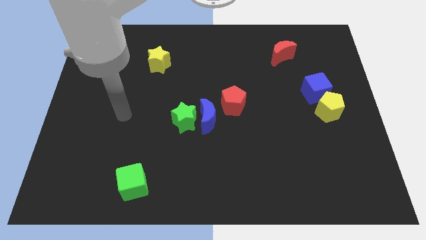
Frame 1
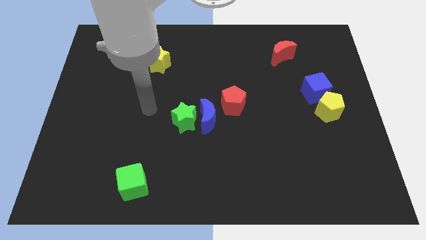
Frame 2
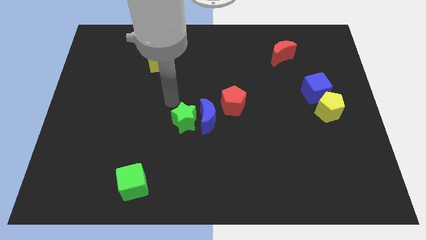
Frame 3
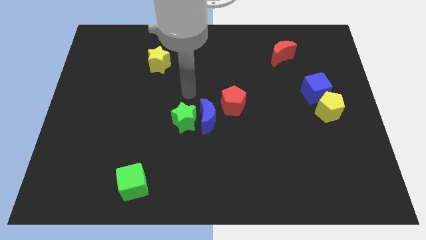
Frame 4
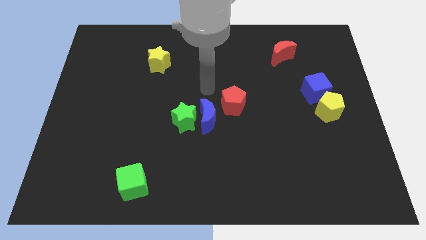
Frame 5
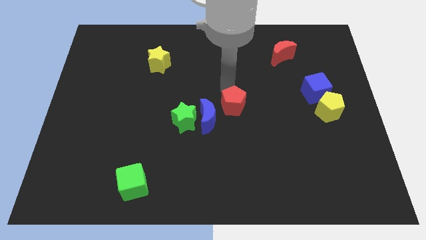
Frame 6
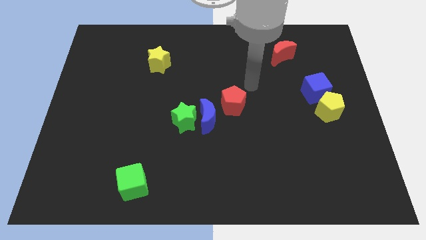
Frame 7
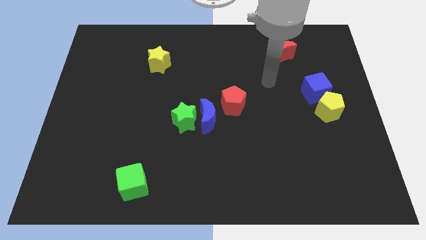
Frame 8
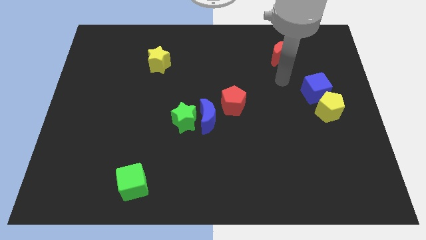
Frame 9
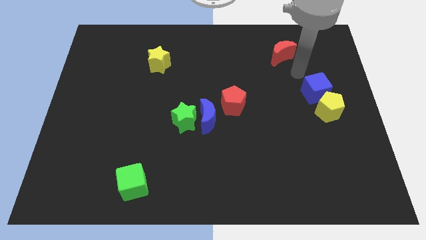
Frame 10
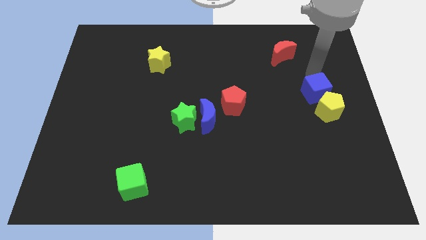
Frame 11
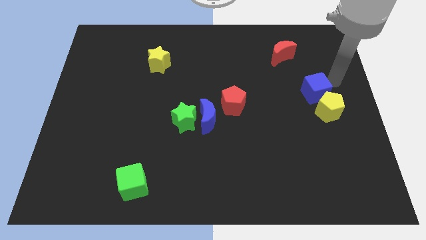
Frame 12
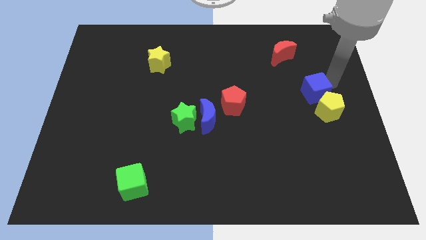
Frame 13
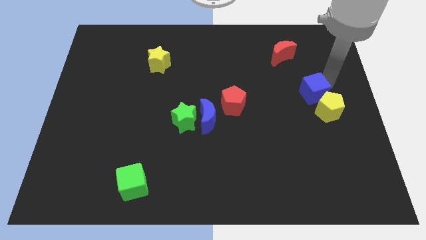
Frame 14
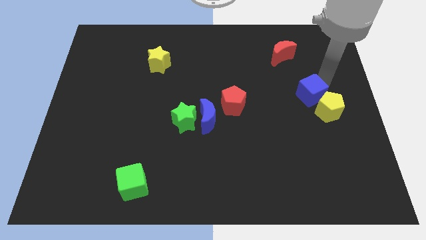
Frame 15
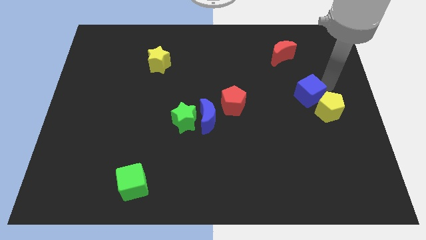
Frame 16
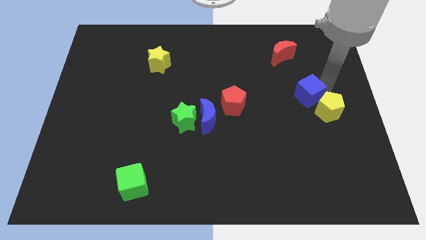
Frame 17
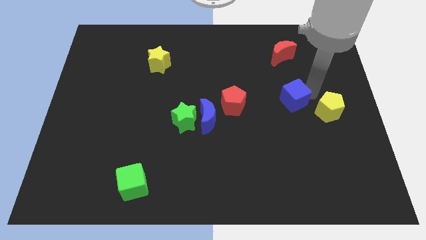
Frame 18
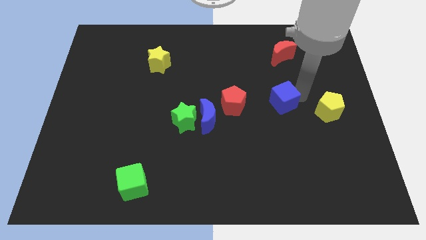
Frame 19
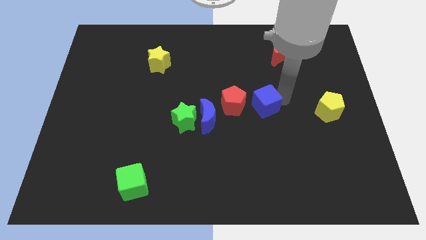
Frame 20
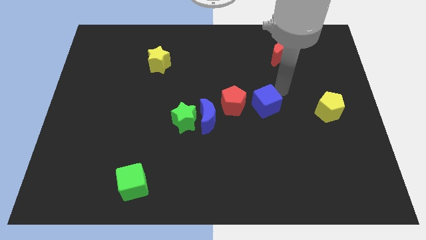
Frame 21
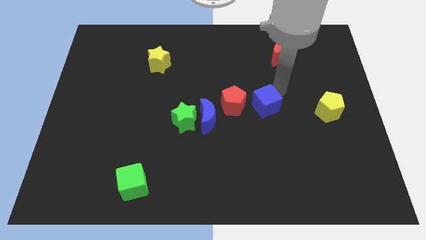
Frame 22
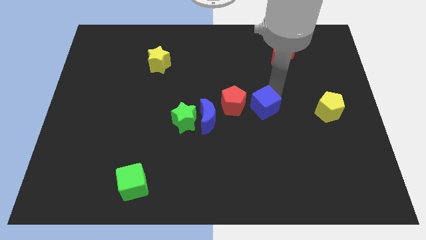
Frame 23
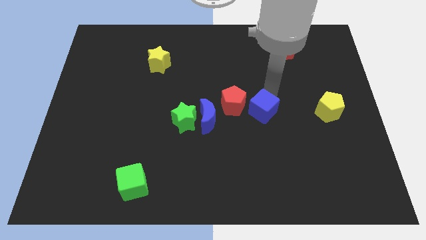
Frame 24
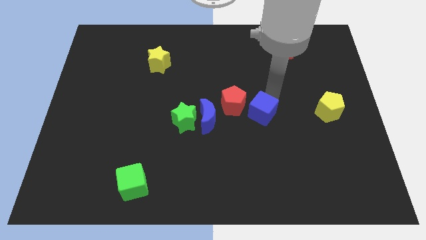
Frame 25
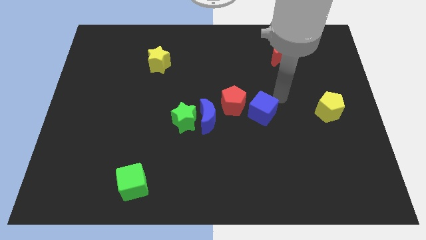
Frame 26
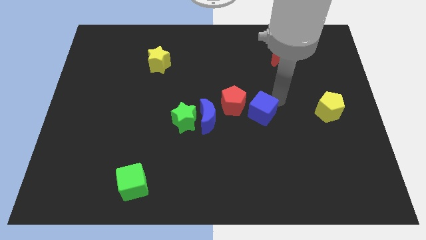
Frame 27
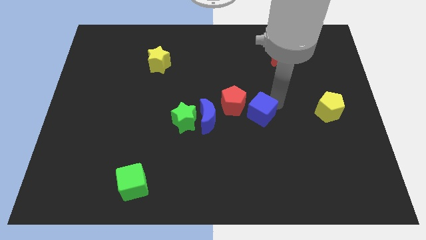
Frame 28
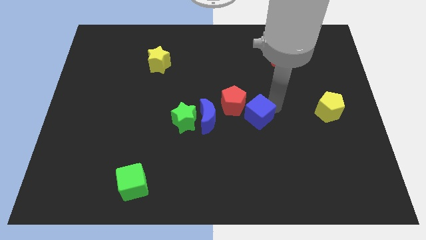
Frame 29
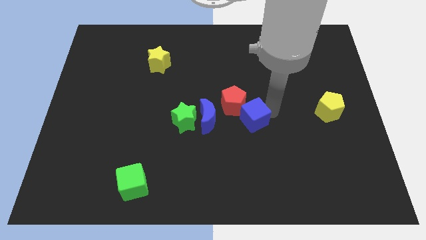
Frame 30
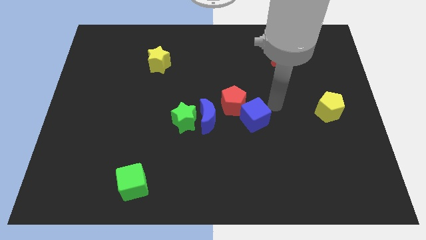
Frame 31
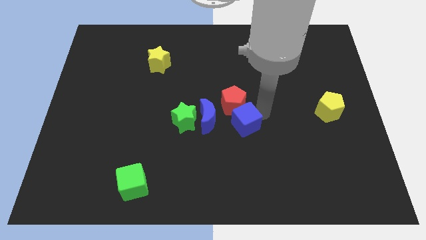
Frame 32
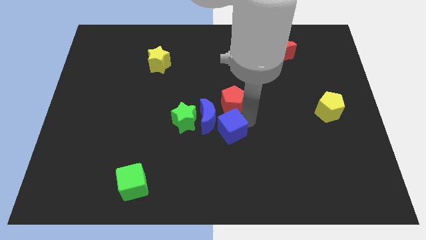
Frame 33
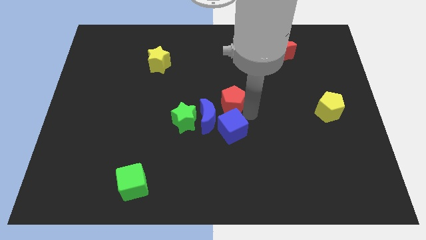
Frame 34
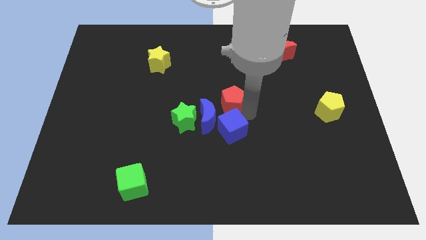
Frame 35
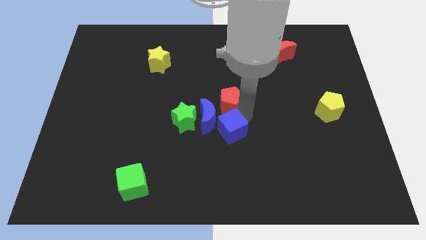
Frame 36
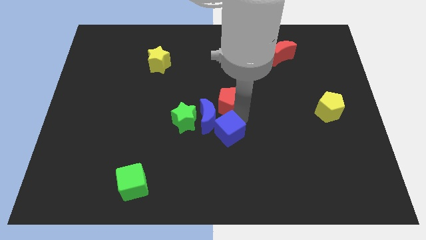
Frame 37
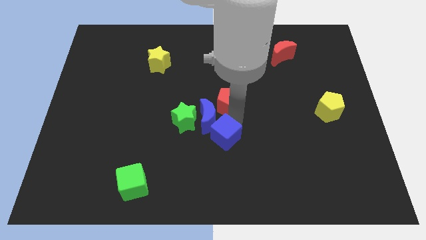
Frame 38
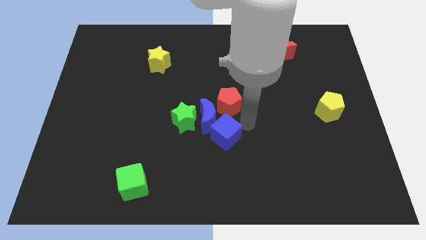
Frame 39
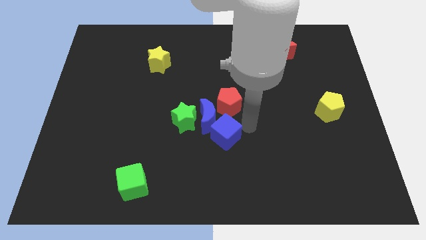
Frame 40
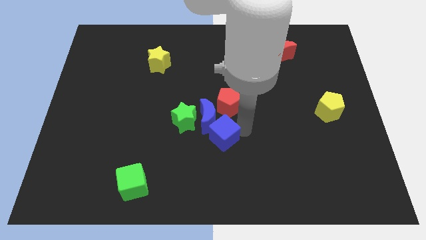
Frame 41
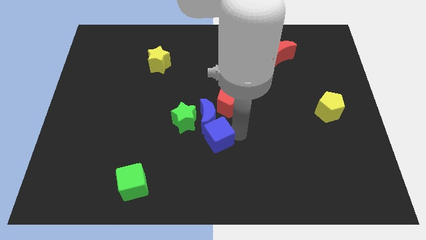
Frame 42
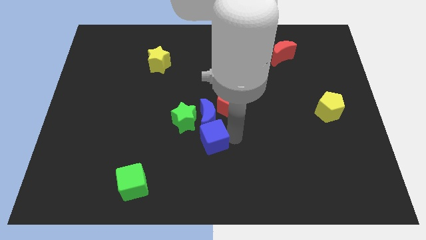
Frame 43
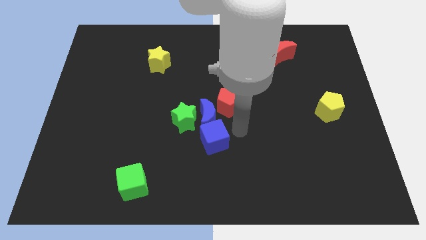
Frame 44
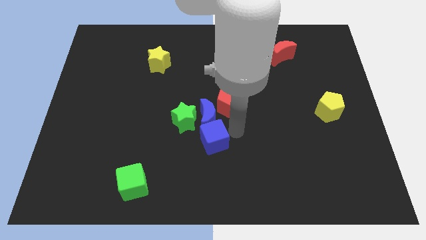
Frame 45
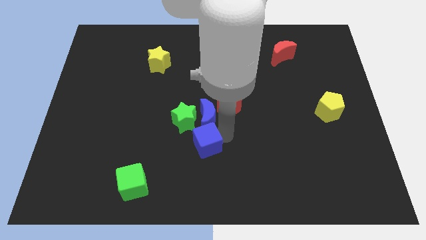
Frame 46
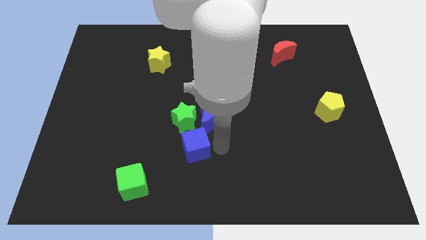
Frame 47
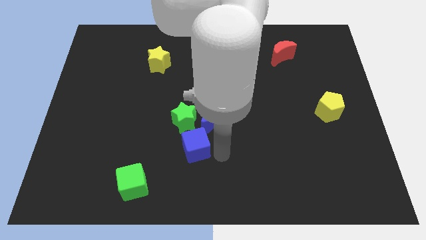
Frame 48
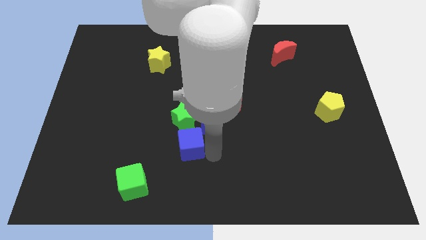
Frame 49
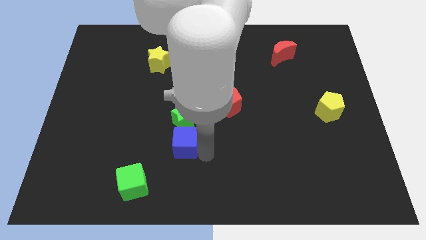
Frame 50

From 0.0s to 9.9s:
put the blue cube diagonally down and to the left of the green star

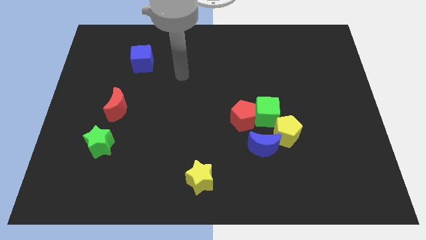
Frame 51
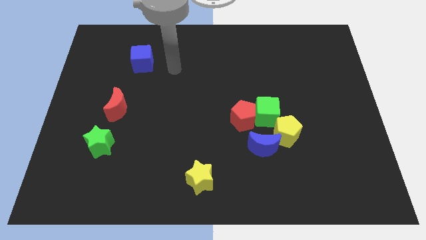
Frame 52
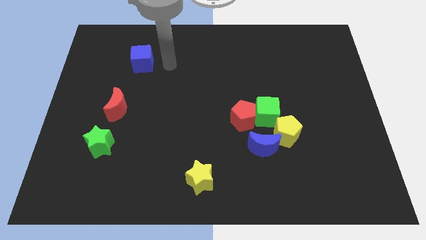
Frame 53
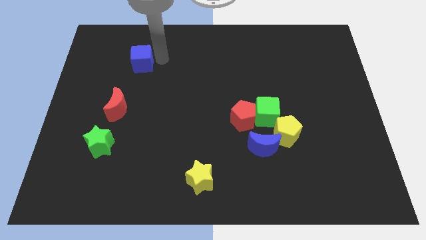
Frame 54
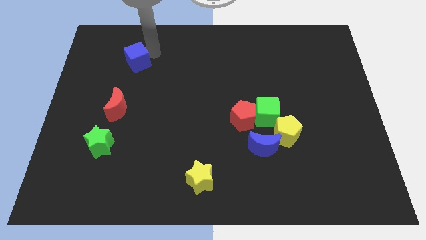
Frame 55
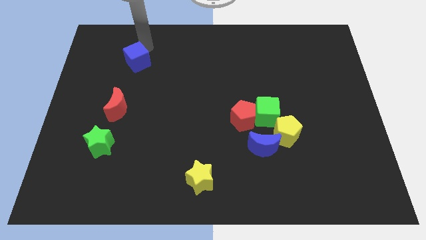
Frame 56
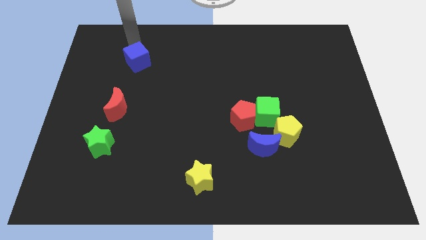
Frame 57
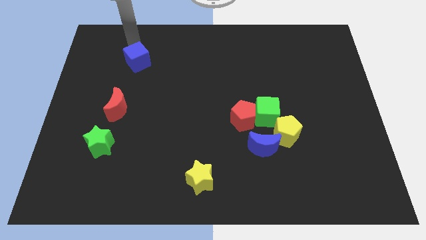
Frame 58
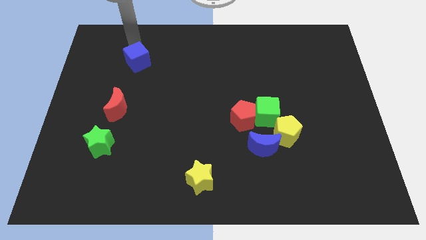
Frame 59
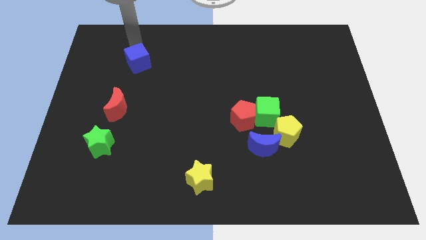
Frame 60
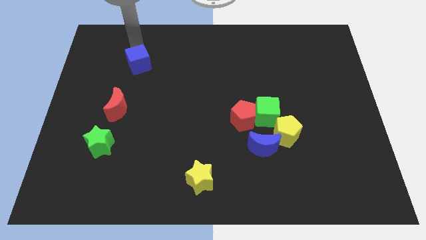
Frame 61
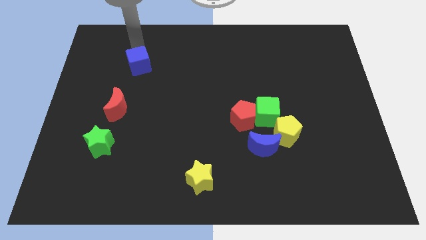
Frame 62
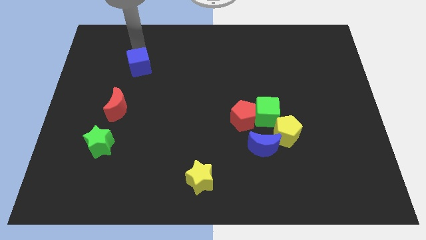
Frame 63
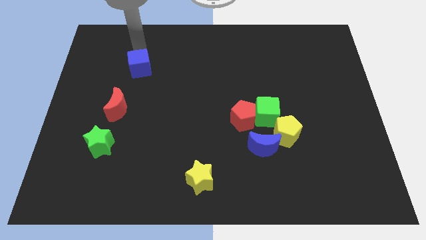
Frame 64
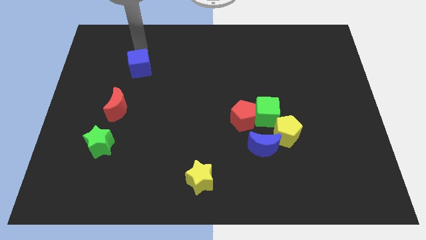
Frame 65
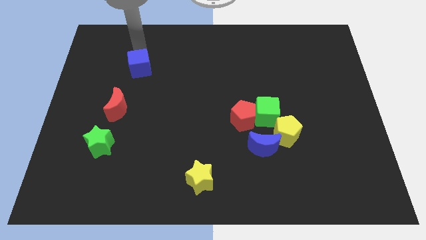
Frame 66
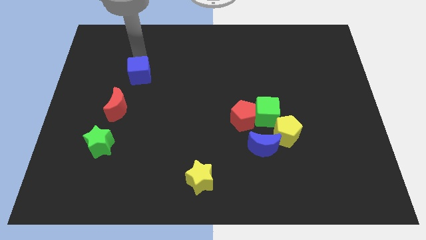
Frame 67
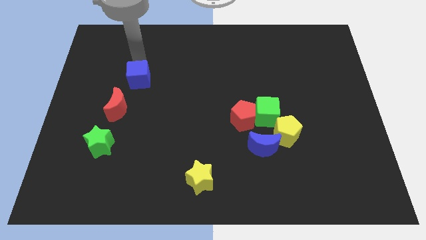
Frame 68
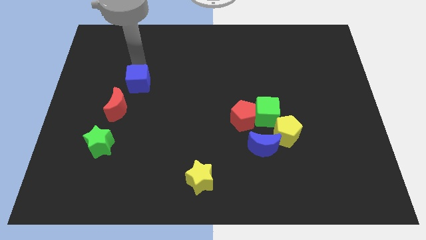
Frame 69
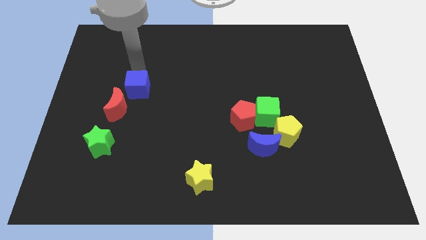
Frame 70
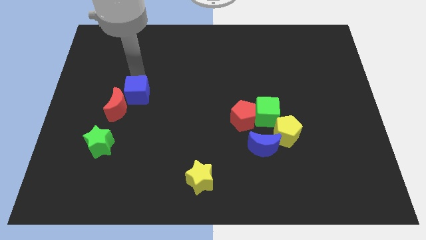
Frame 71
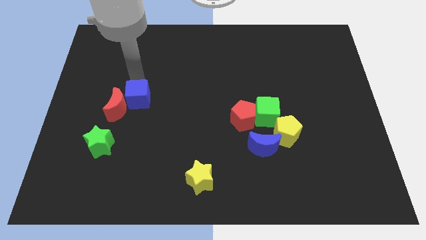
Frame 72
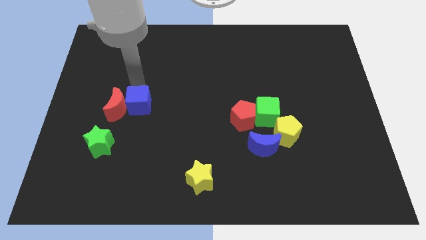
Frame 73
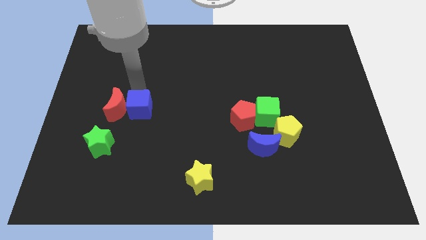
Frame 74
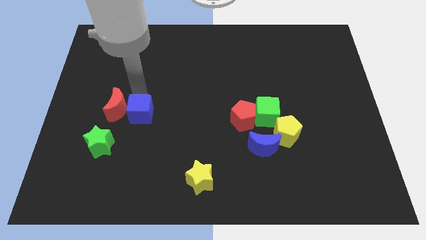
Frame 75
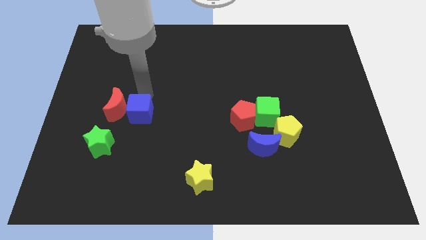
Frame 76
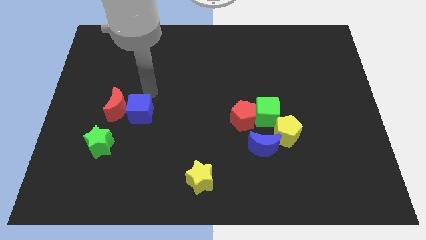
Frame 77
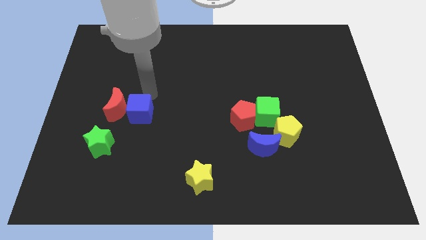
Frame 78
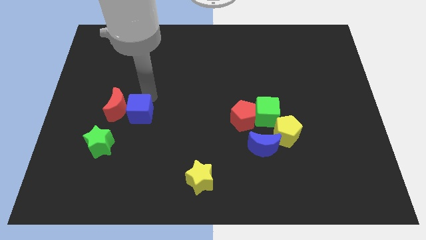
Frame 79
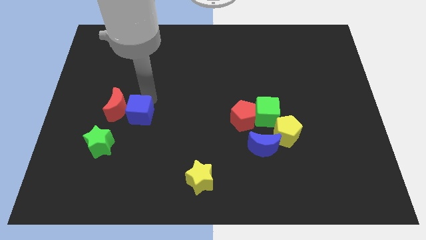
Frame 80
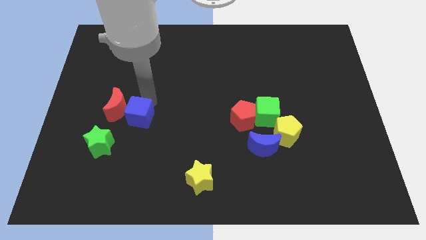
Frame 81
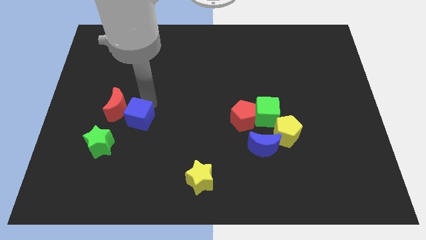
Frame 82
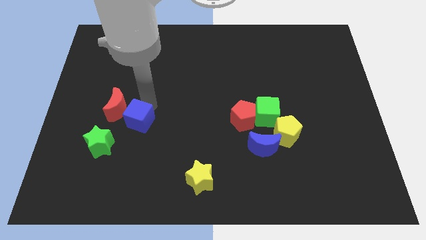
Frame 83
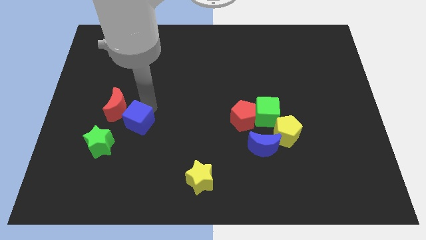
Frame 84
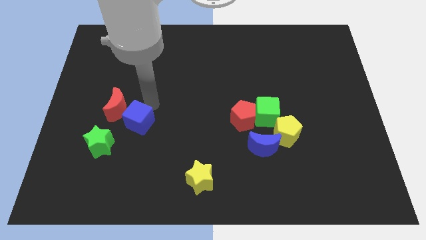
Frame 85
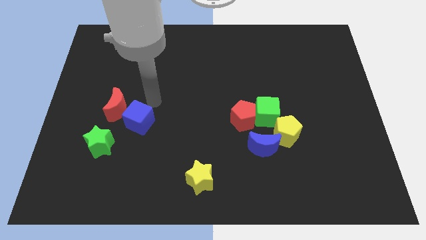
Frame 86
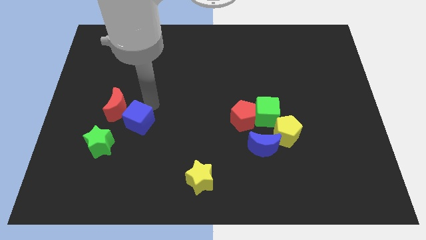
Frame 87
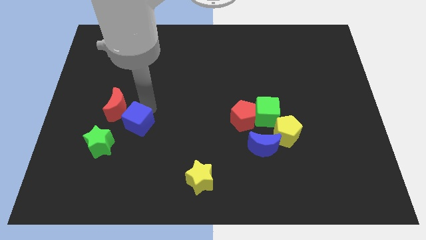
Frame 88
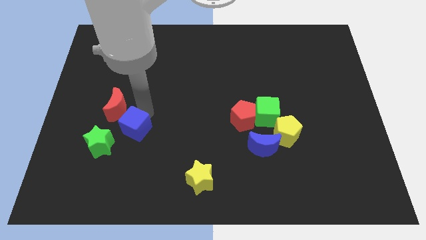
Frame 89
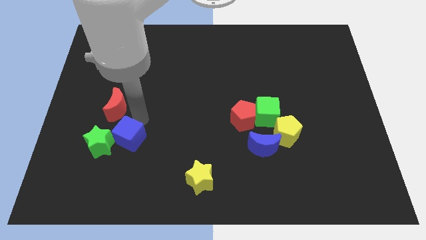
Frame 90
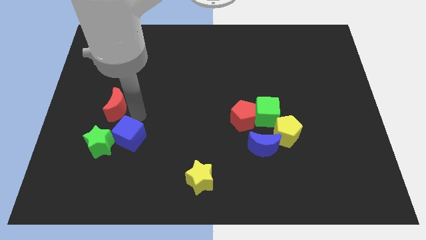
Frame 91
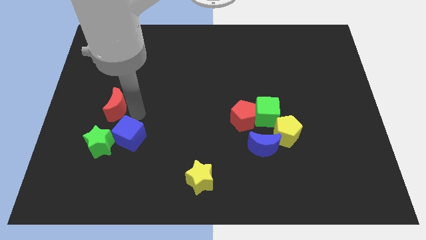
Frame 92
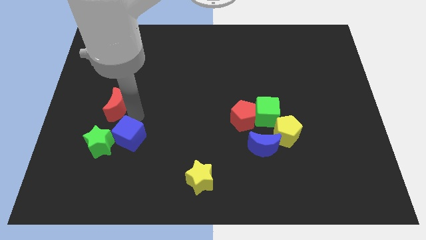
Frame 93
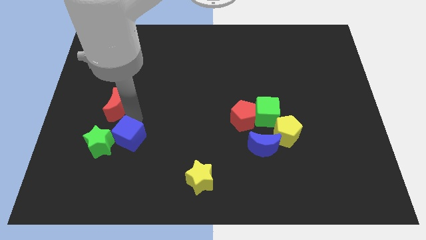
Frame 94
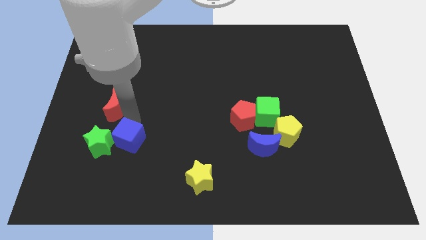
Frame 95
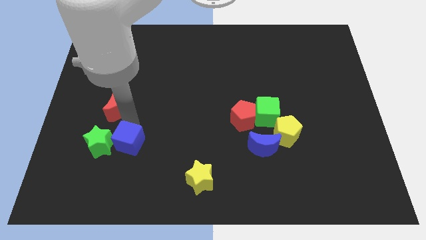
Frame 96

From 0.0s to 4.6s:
slide the blue cube diagonally down and to the right of the green star
